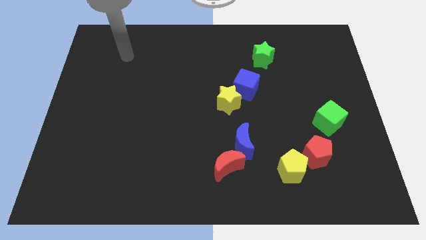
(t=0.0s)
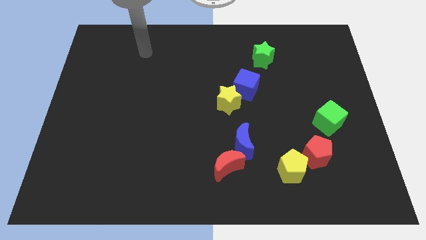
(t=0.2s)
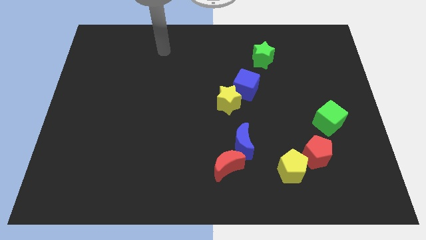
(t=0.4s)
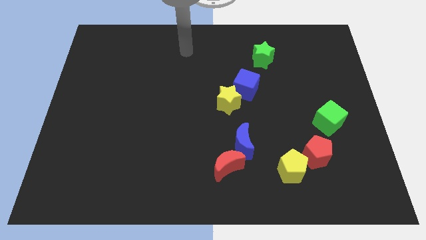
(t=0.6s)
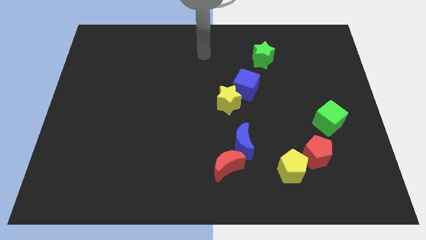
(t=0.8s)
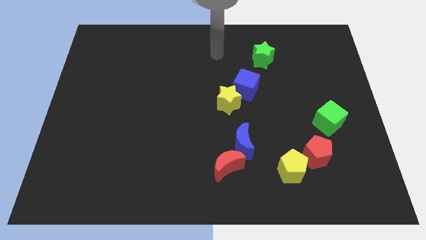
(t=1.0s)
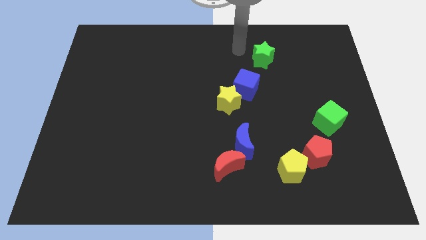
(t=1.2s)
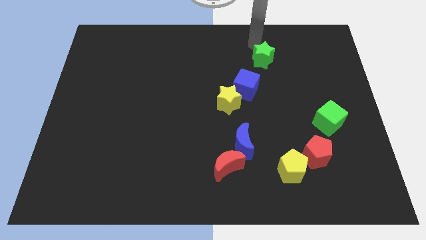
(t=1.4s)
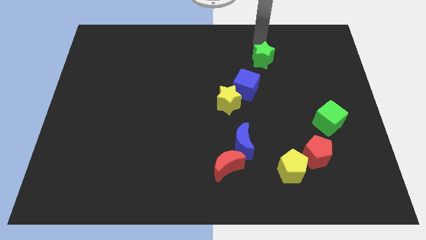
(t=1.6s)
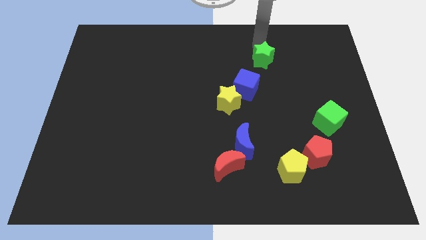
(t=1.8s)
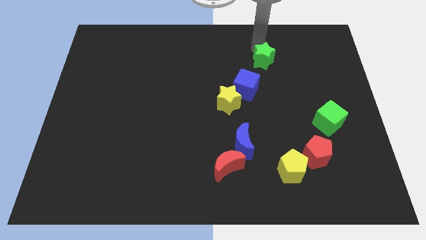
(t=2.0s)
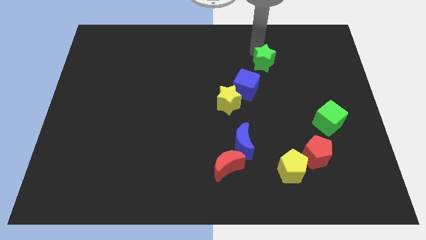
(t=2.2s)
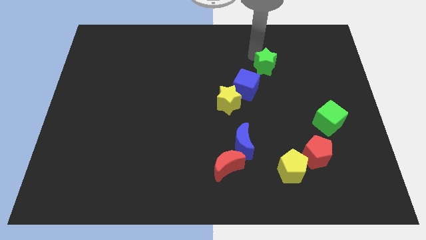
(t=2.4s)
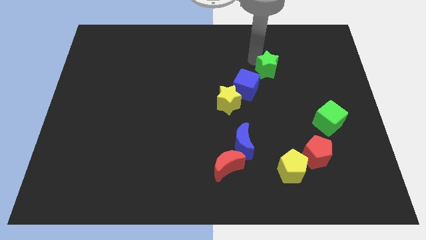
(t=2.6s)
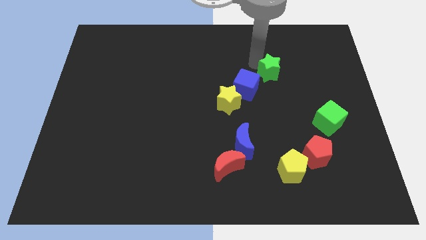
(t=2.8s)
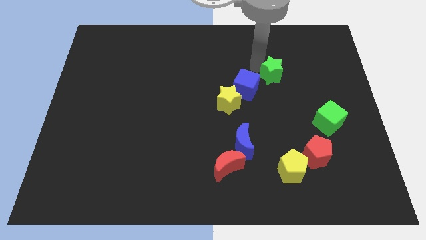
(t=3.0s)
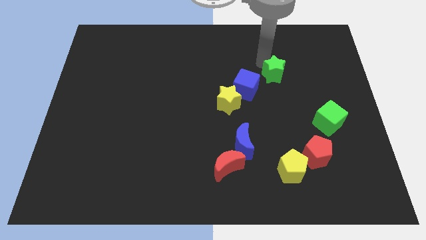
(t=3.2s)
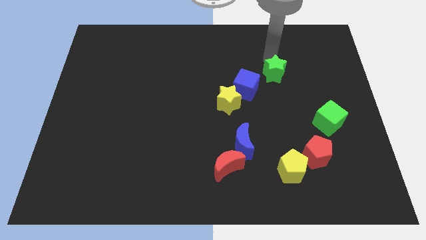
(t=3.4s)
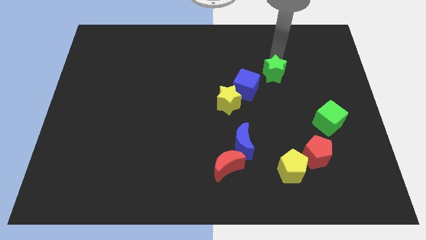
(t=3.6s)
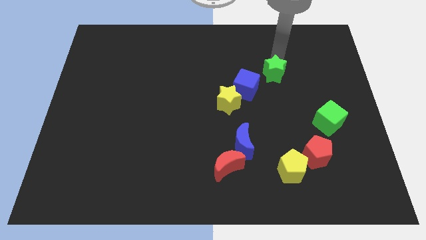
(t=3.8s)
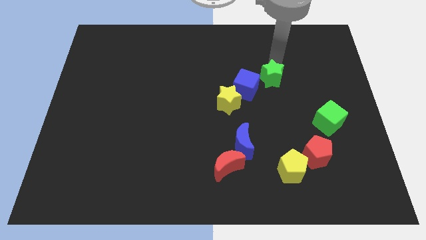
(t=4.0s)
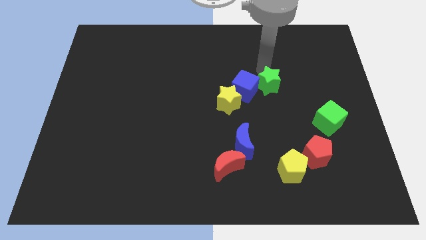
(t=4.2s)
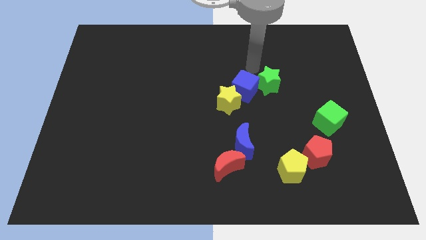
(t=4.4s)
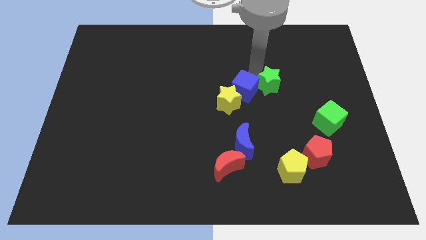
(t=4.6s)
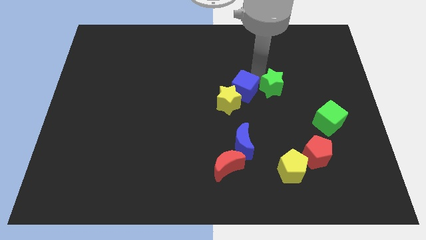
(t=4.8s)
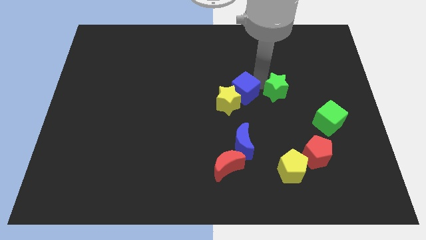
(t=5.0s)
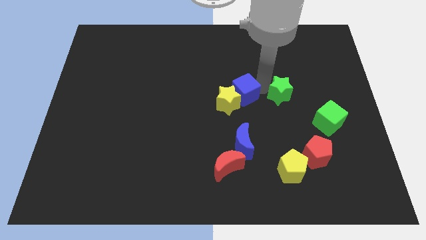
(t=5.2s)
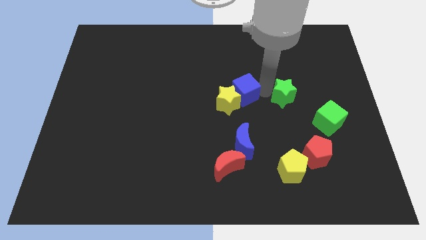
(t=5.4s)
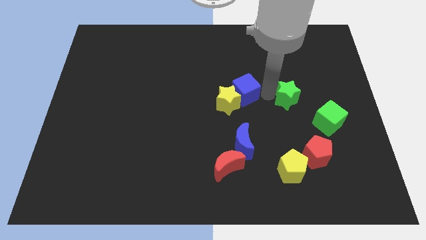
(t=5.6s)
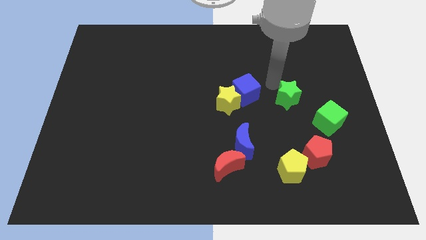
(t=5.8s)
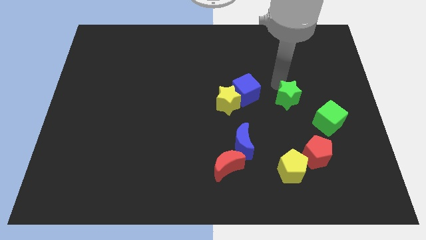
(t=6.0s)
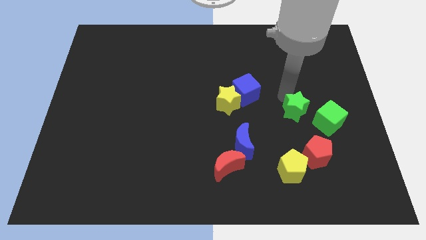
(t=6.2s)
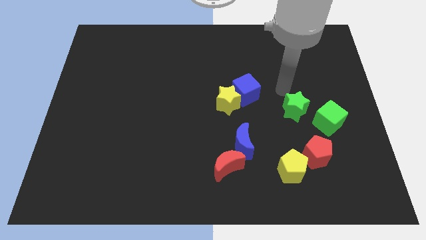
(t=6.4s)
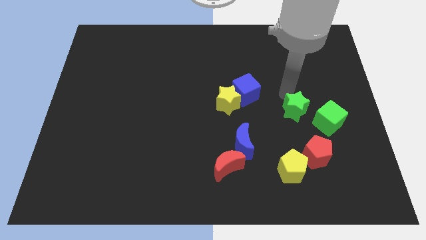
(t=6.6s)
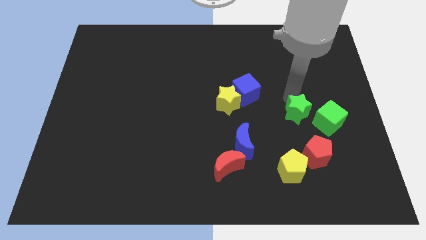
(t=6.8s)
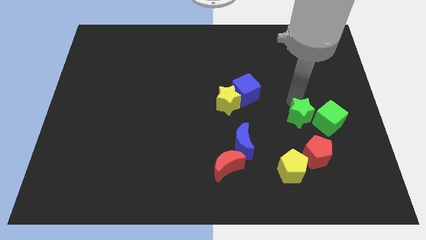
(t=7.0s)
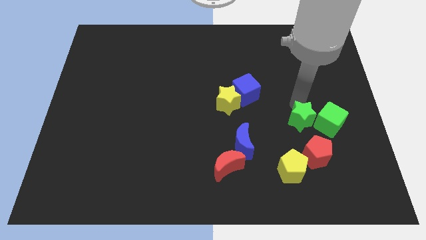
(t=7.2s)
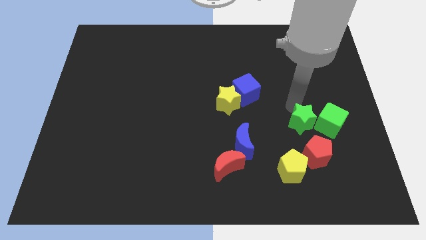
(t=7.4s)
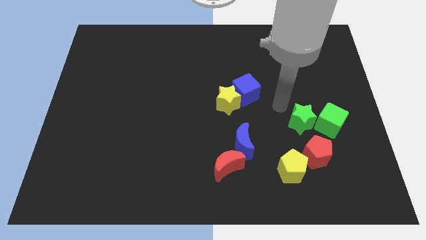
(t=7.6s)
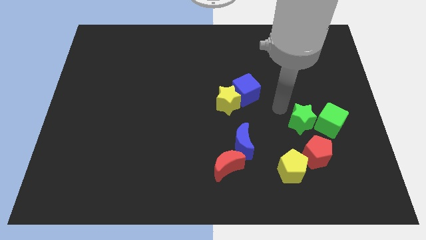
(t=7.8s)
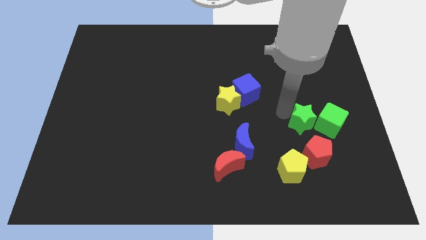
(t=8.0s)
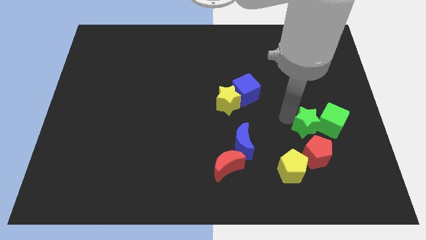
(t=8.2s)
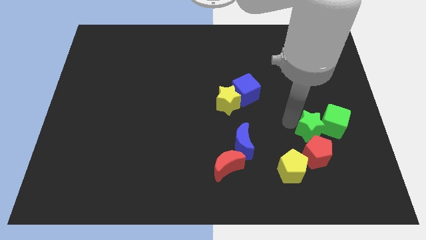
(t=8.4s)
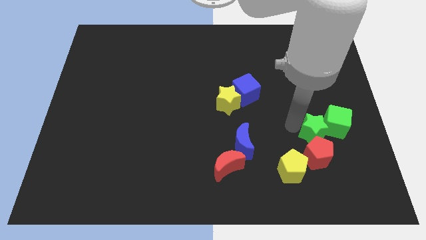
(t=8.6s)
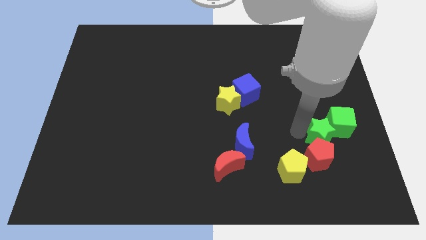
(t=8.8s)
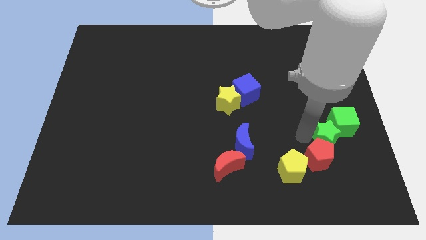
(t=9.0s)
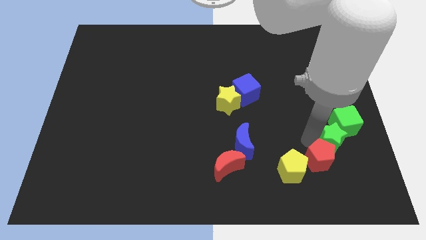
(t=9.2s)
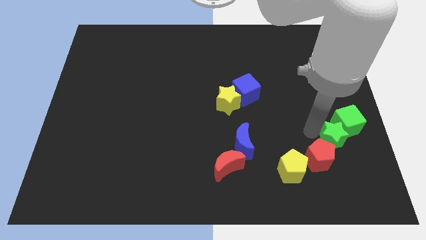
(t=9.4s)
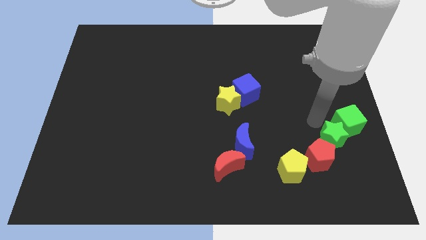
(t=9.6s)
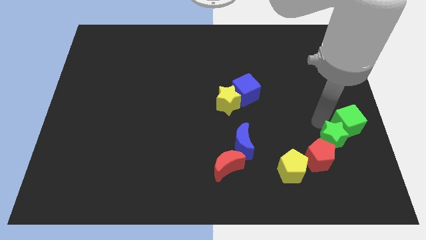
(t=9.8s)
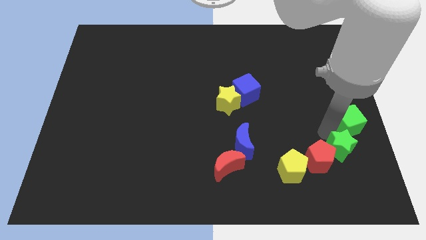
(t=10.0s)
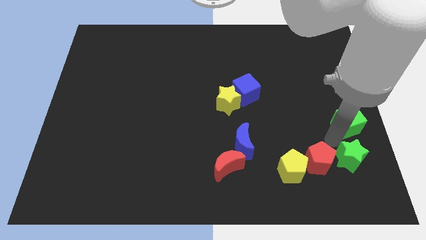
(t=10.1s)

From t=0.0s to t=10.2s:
move the green star to the bottom right side of the red pentagon

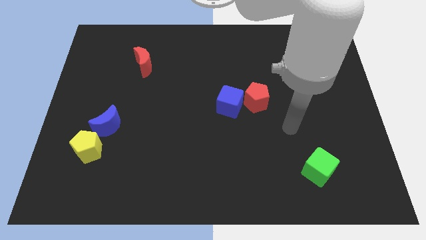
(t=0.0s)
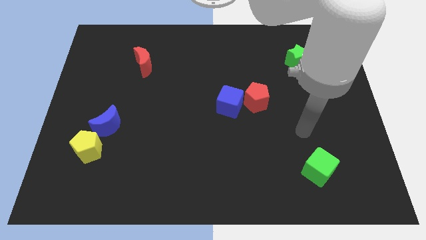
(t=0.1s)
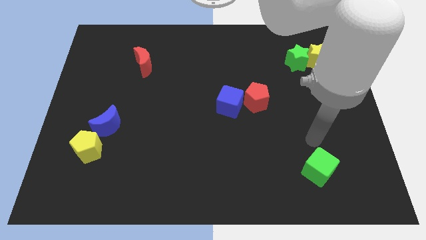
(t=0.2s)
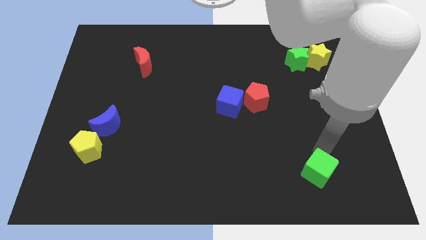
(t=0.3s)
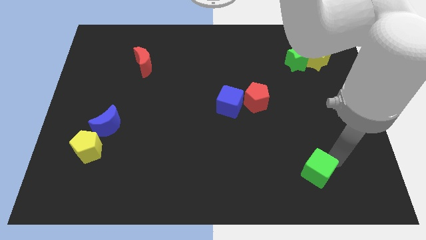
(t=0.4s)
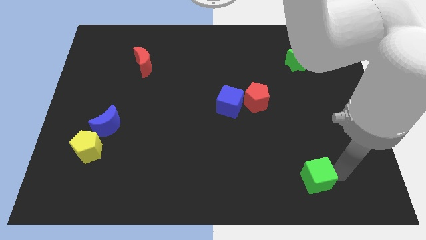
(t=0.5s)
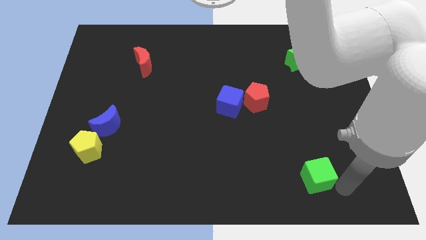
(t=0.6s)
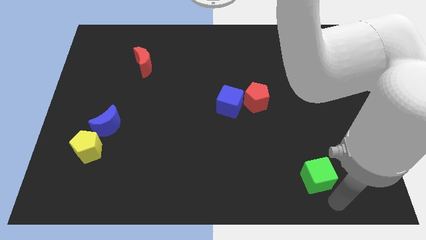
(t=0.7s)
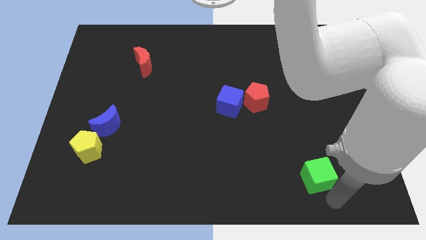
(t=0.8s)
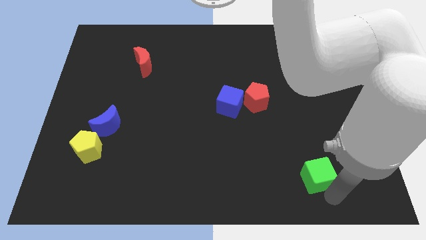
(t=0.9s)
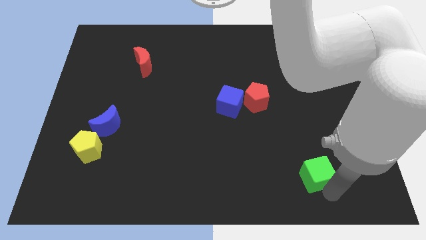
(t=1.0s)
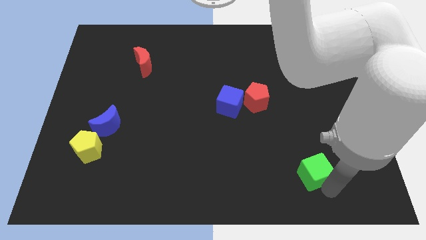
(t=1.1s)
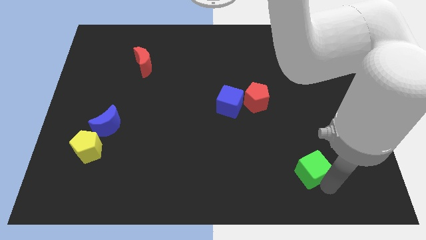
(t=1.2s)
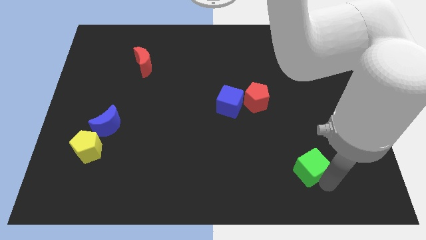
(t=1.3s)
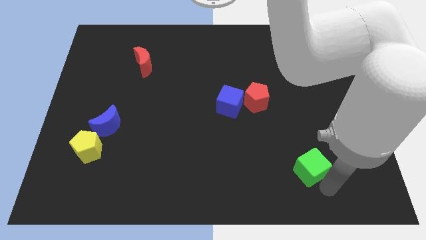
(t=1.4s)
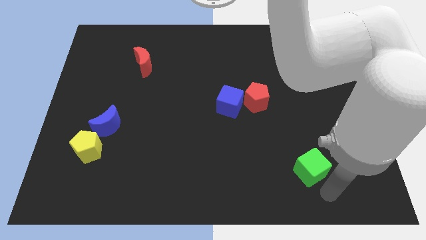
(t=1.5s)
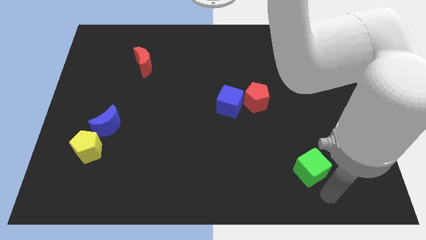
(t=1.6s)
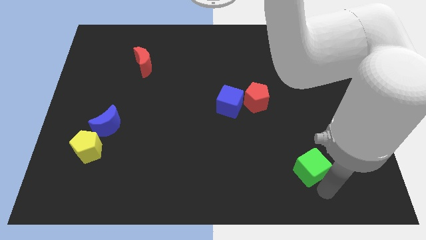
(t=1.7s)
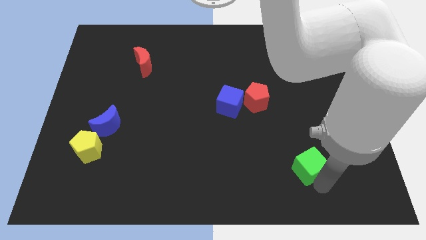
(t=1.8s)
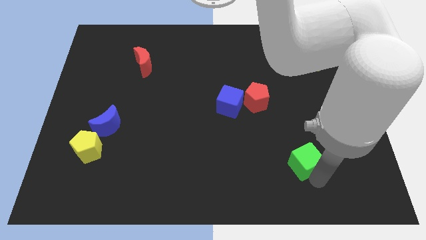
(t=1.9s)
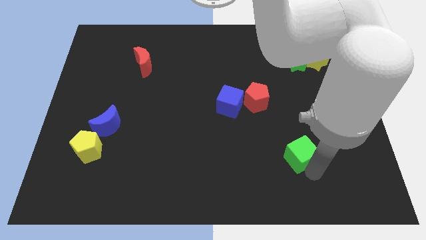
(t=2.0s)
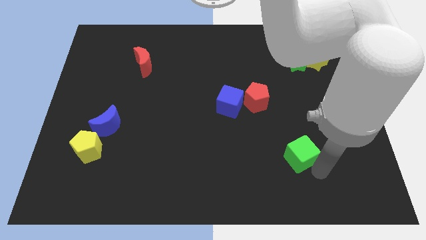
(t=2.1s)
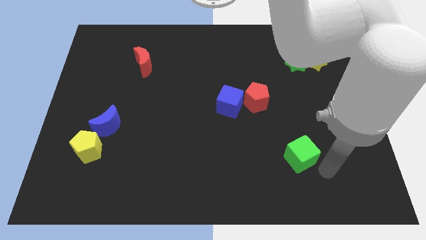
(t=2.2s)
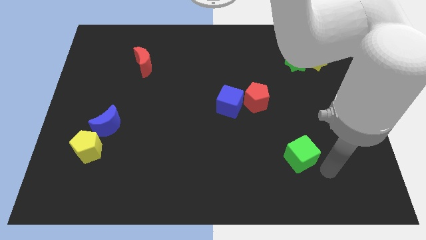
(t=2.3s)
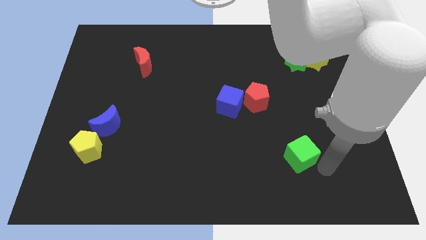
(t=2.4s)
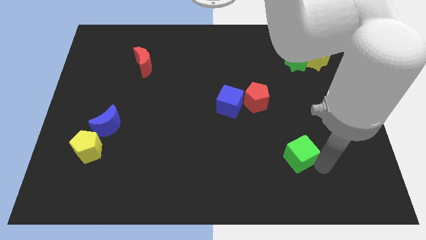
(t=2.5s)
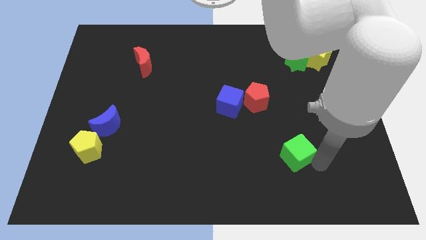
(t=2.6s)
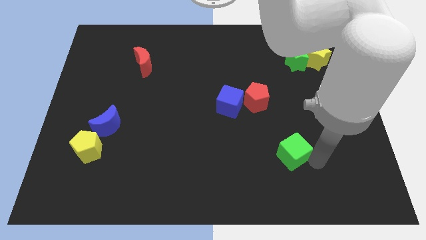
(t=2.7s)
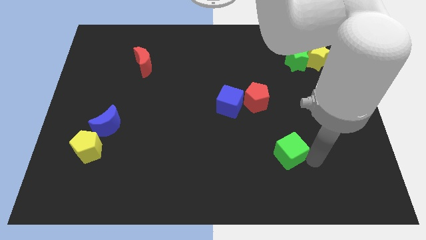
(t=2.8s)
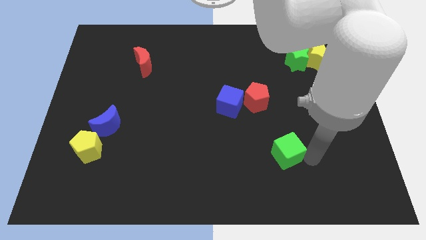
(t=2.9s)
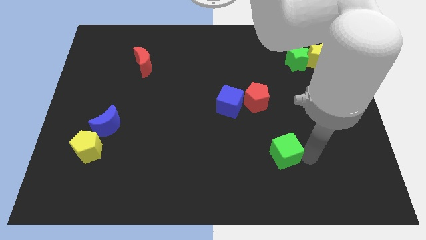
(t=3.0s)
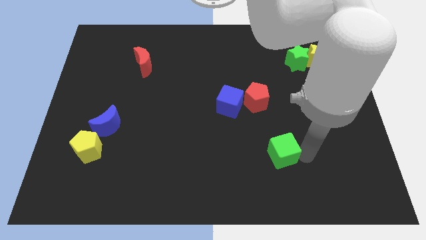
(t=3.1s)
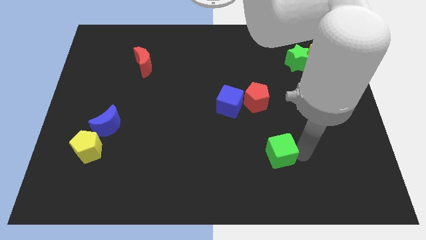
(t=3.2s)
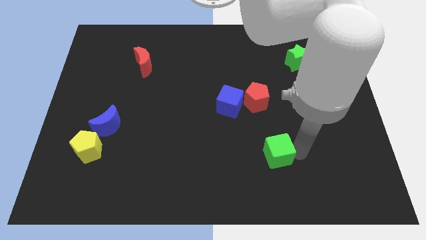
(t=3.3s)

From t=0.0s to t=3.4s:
move the green cube to the bottom side of the red pentagon
